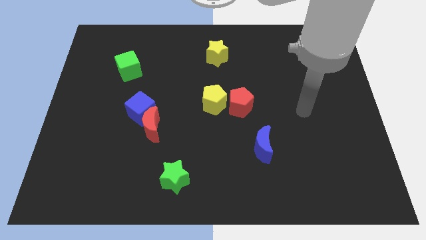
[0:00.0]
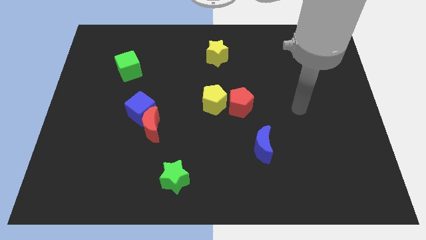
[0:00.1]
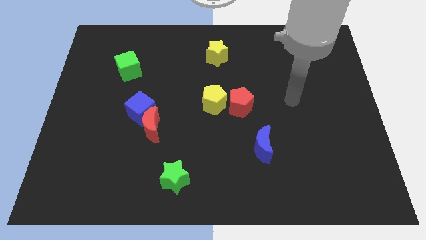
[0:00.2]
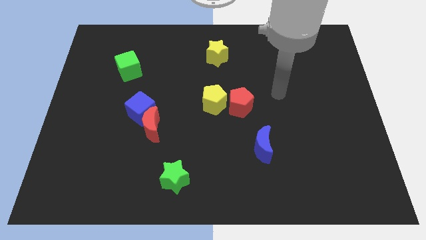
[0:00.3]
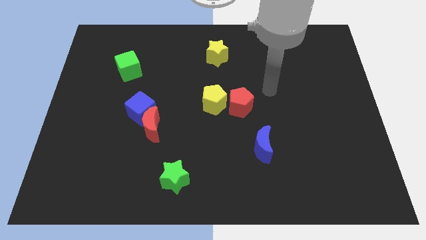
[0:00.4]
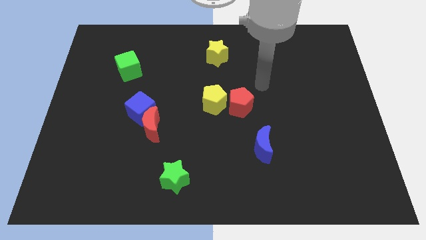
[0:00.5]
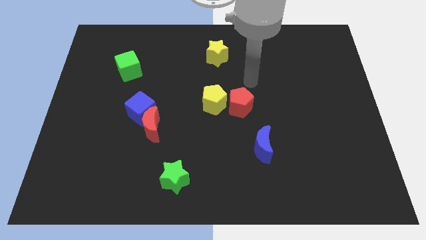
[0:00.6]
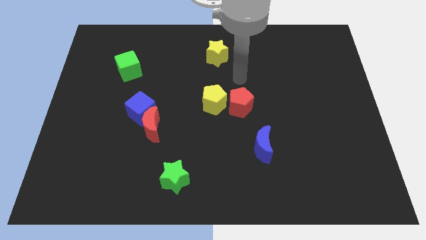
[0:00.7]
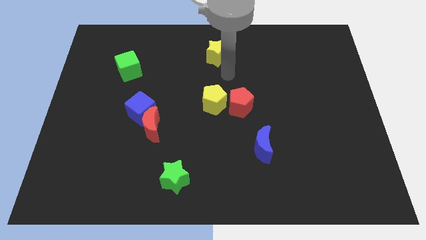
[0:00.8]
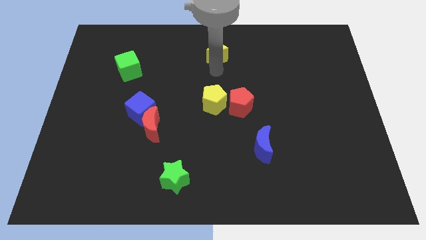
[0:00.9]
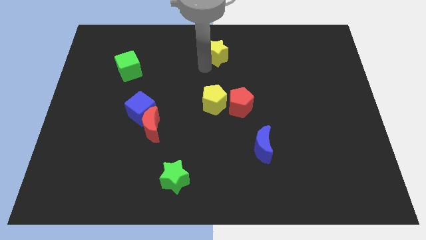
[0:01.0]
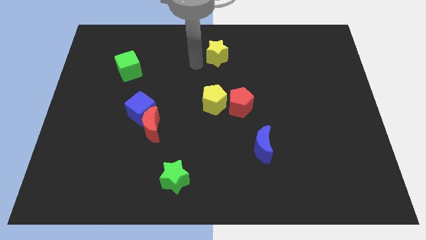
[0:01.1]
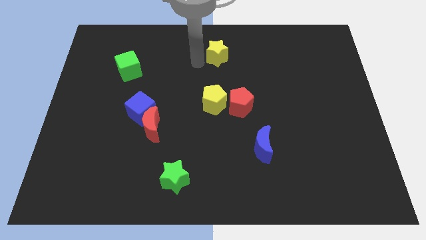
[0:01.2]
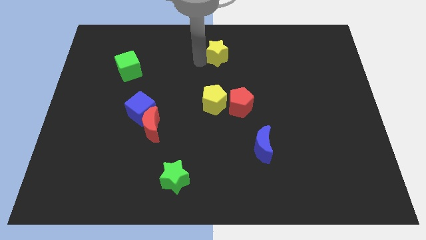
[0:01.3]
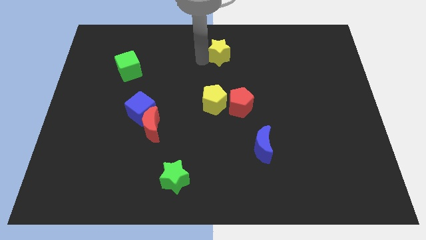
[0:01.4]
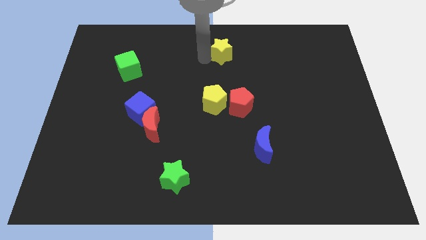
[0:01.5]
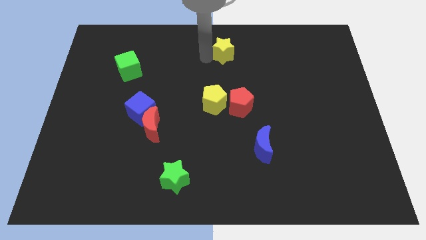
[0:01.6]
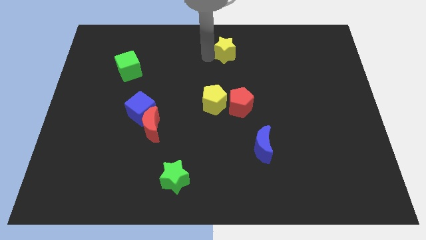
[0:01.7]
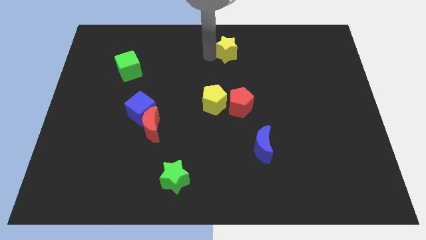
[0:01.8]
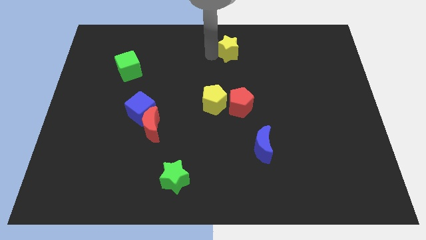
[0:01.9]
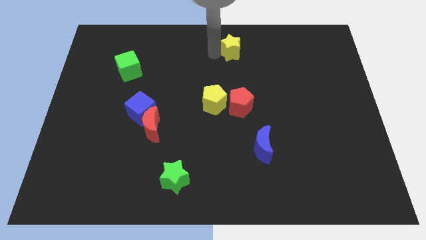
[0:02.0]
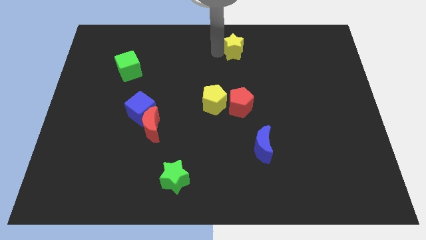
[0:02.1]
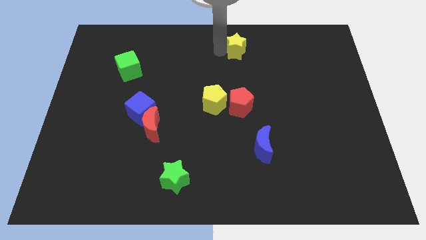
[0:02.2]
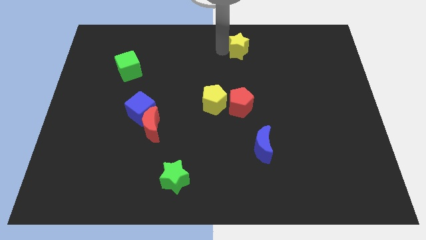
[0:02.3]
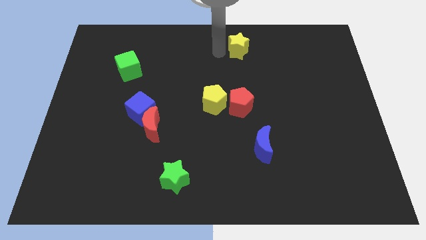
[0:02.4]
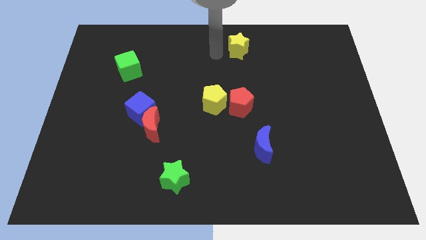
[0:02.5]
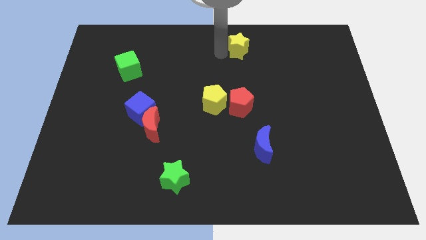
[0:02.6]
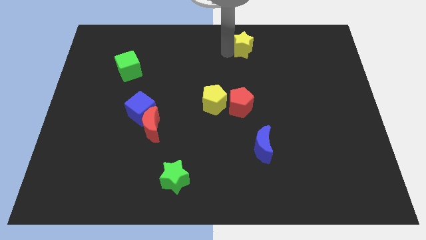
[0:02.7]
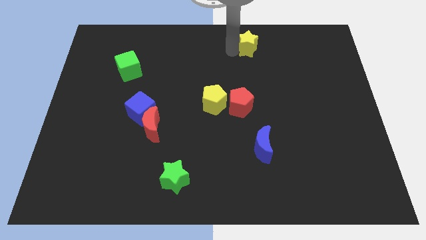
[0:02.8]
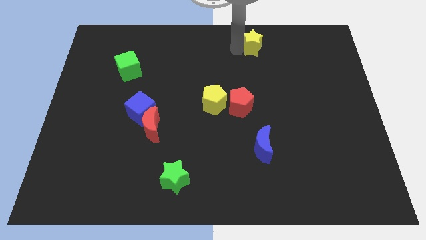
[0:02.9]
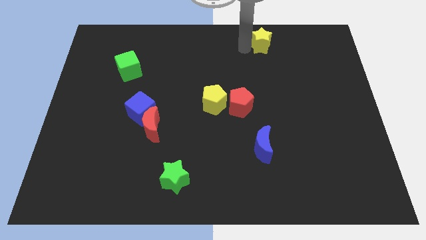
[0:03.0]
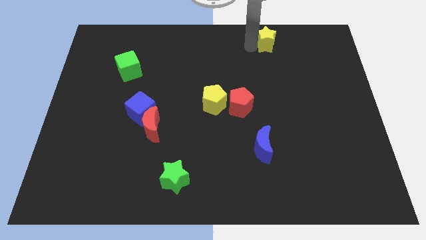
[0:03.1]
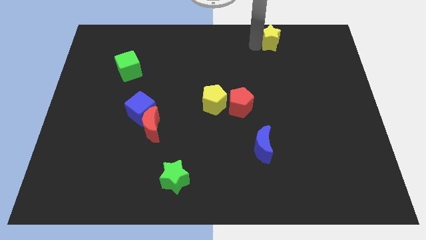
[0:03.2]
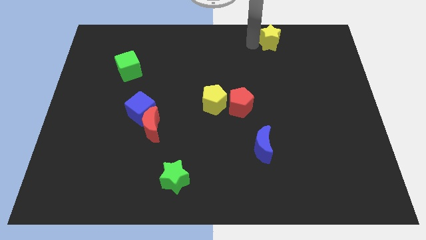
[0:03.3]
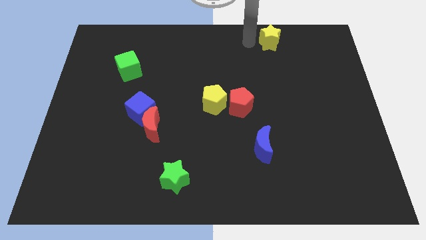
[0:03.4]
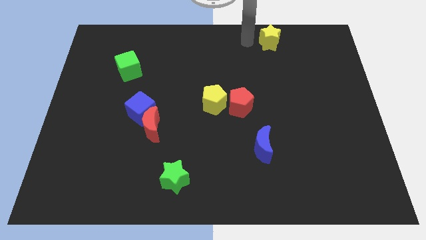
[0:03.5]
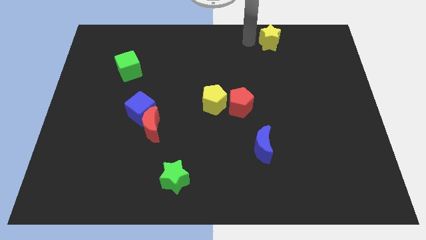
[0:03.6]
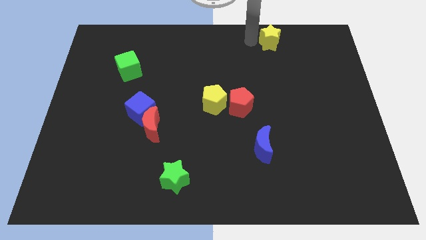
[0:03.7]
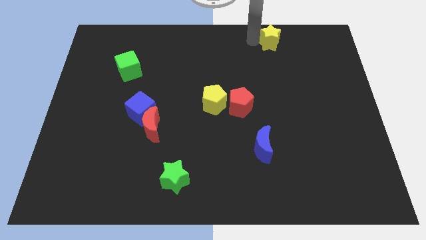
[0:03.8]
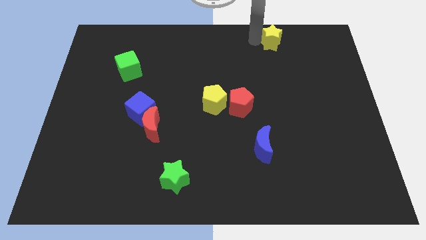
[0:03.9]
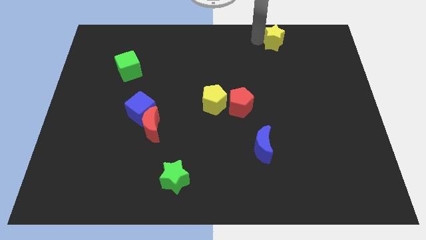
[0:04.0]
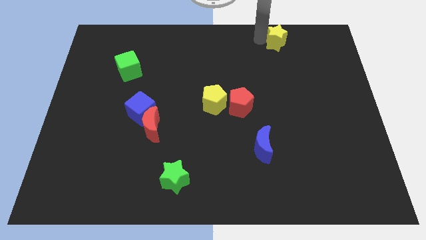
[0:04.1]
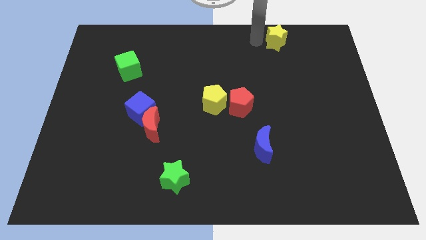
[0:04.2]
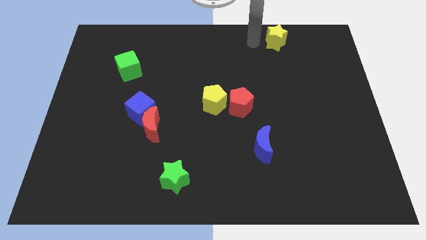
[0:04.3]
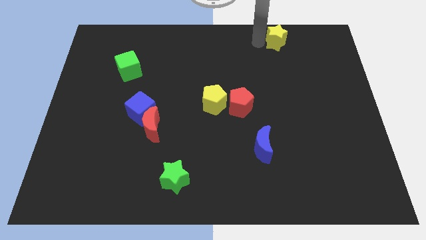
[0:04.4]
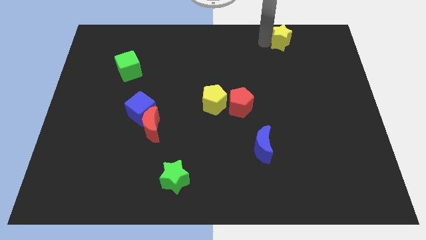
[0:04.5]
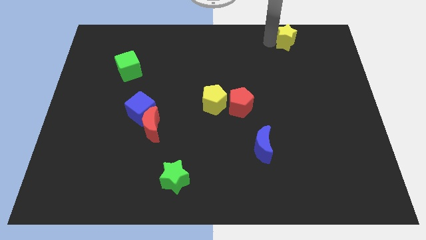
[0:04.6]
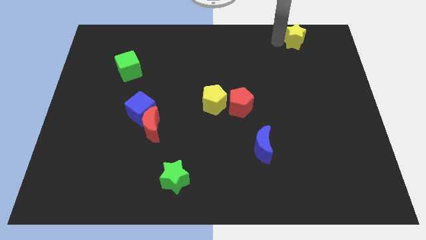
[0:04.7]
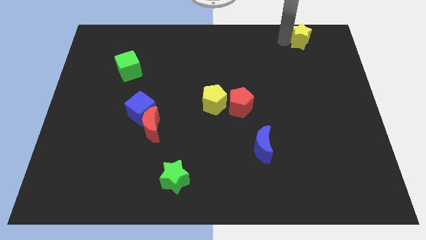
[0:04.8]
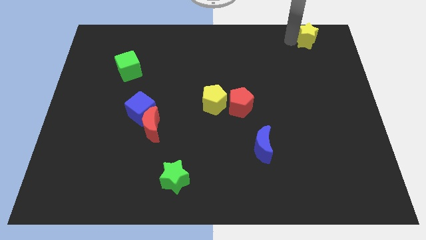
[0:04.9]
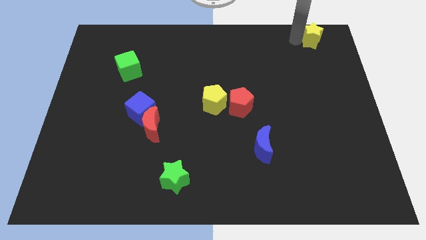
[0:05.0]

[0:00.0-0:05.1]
slide the yellow star to the top right

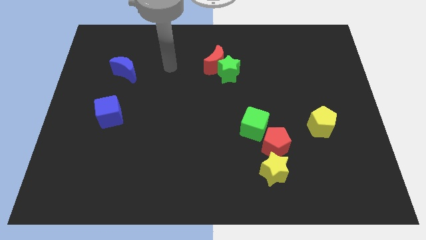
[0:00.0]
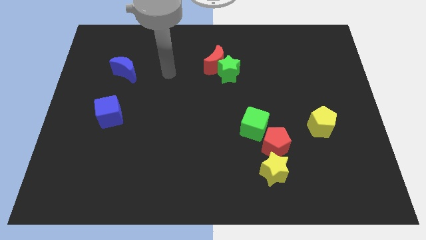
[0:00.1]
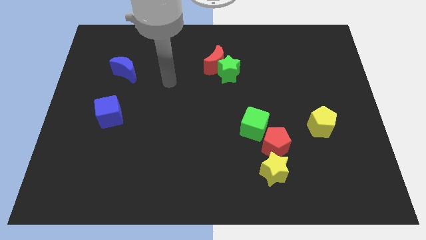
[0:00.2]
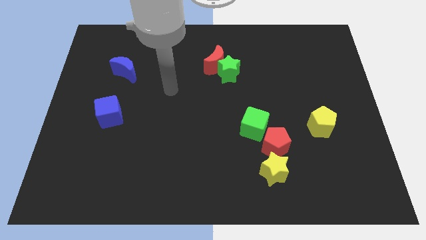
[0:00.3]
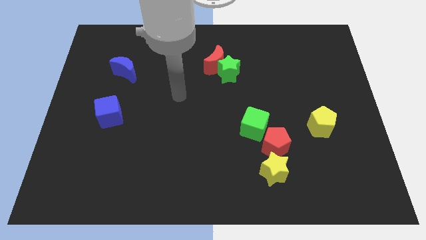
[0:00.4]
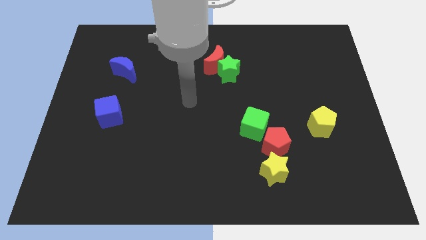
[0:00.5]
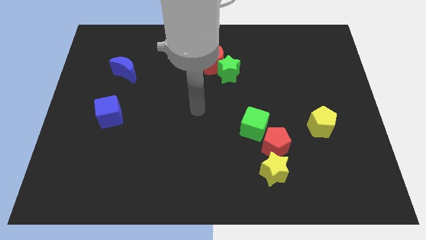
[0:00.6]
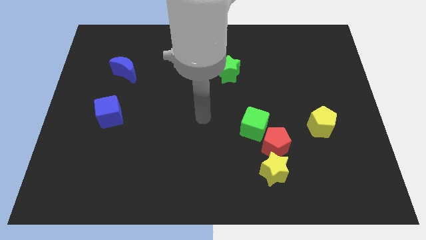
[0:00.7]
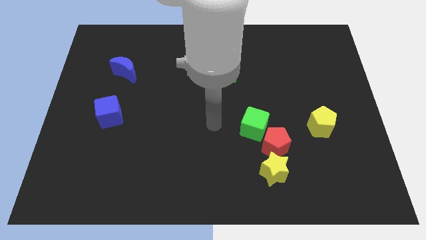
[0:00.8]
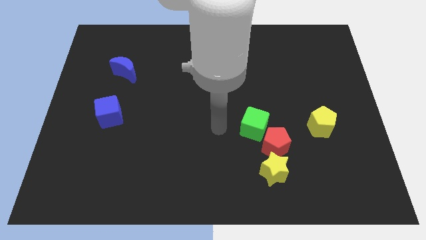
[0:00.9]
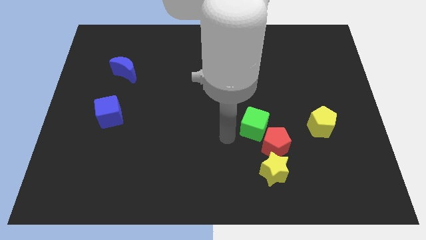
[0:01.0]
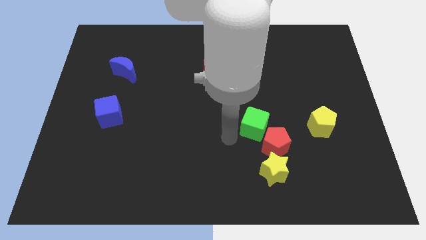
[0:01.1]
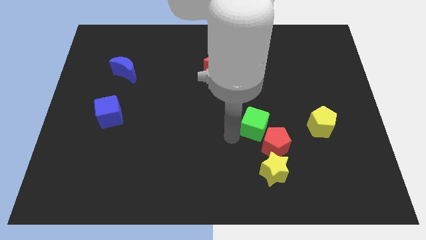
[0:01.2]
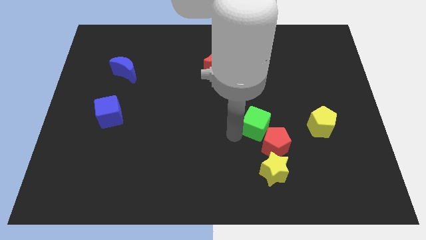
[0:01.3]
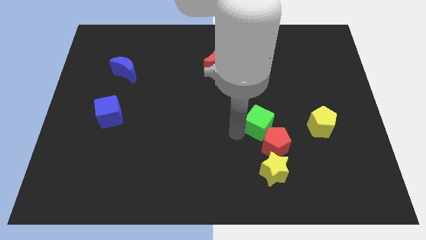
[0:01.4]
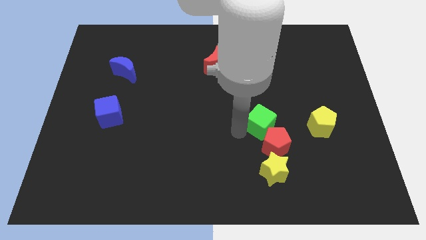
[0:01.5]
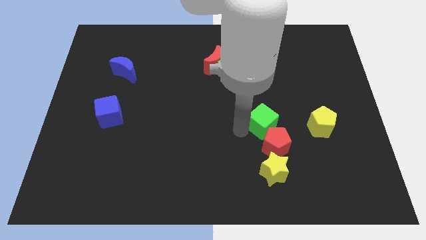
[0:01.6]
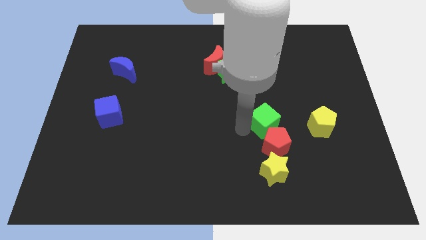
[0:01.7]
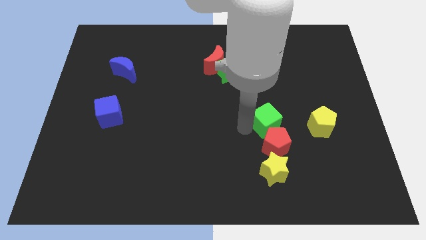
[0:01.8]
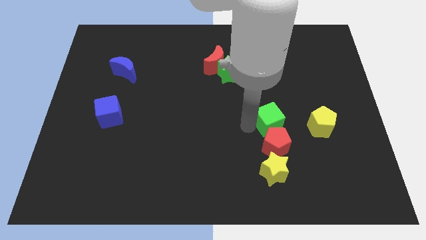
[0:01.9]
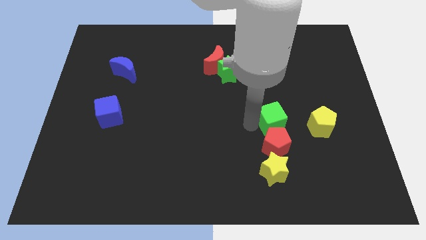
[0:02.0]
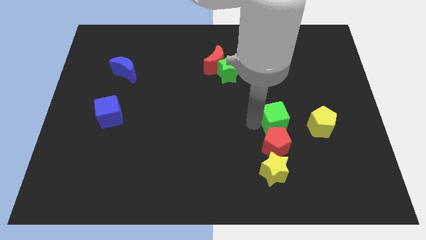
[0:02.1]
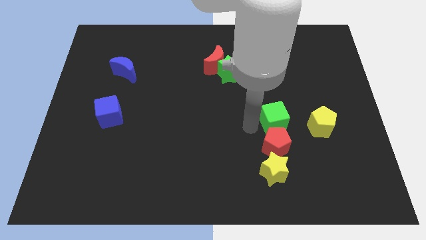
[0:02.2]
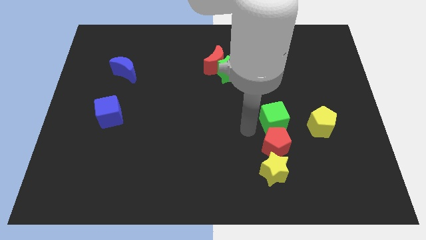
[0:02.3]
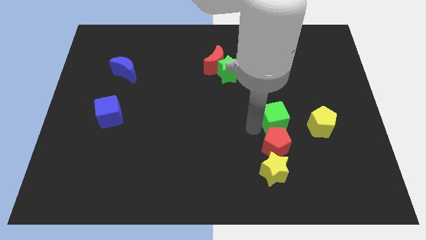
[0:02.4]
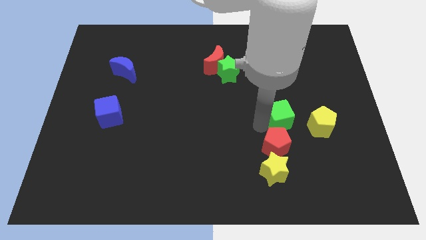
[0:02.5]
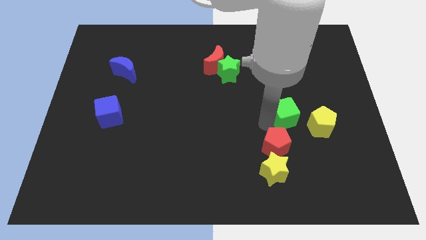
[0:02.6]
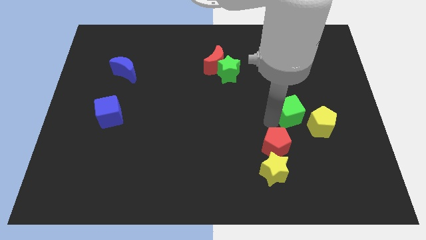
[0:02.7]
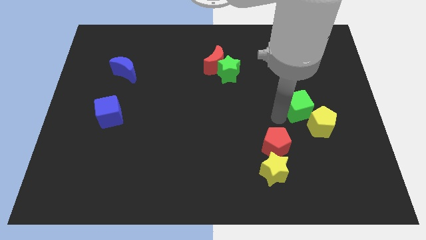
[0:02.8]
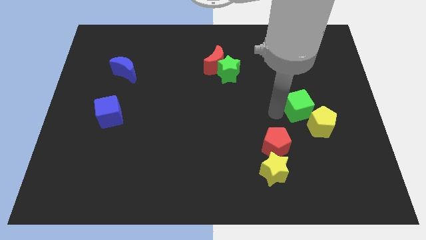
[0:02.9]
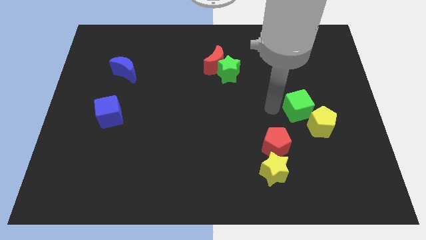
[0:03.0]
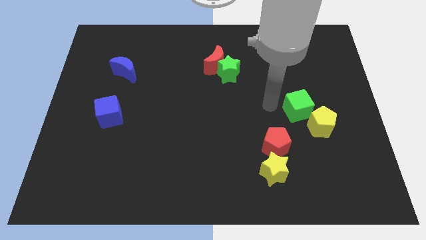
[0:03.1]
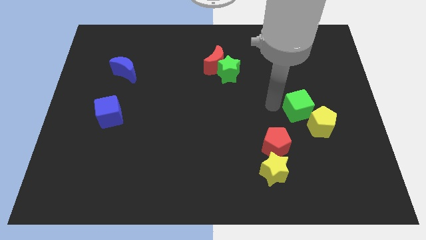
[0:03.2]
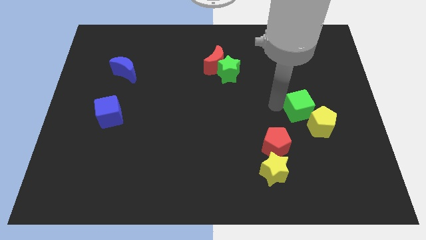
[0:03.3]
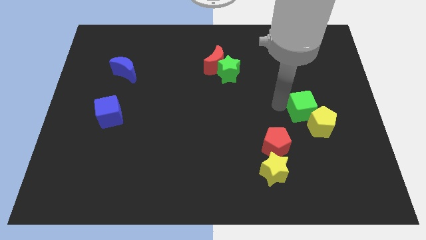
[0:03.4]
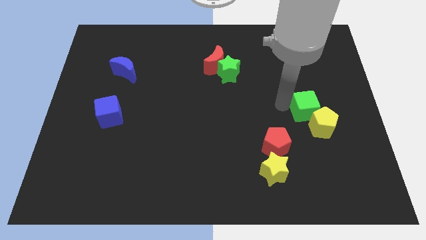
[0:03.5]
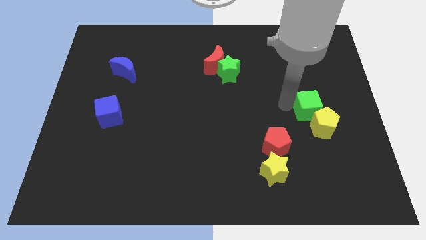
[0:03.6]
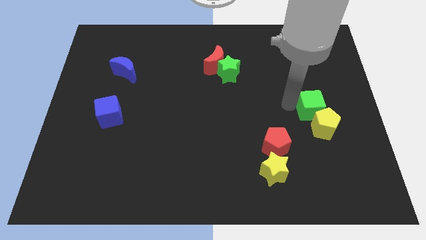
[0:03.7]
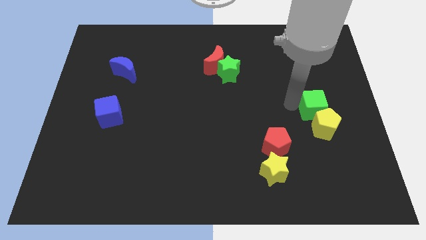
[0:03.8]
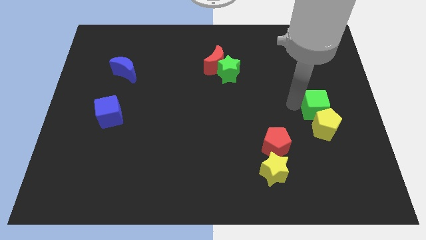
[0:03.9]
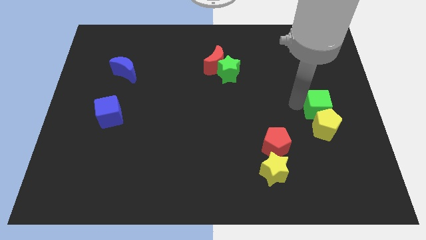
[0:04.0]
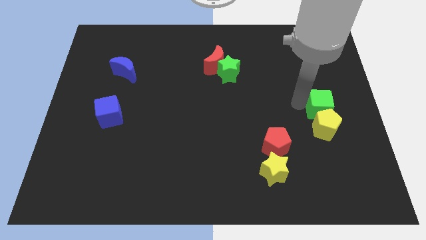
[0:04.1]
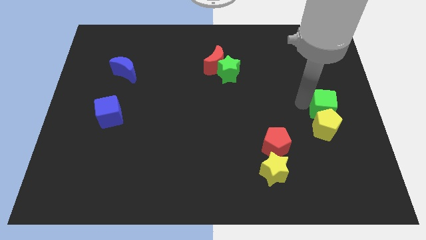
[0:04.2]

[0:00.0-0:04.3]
move the green cube to the center right
